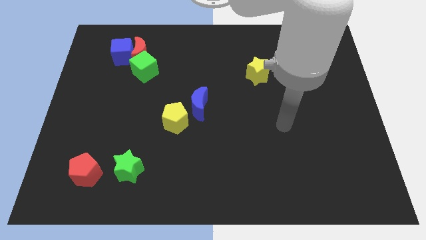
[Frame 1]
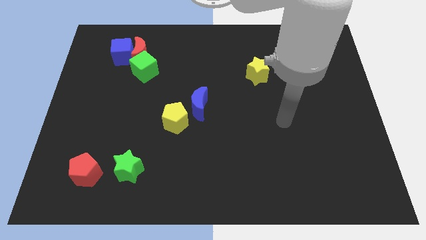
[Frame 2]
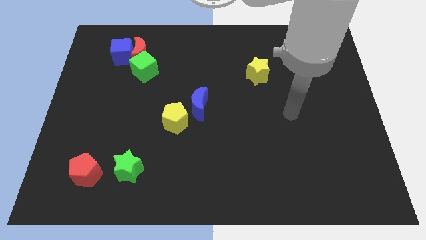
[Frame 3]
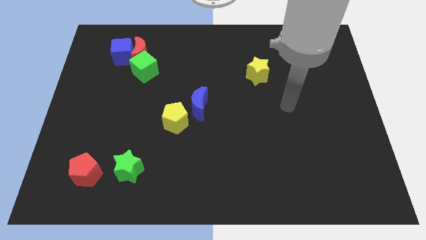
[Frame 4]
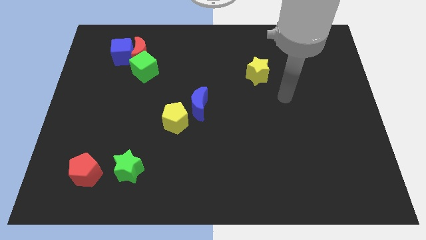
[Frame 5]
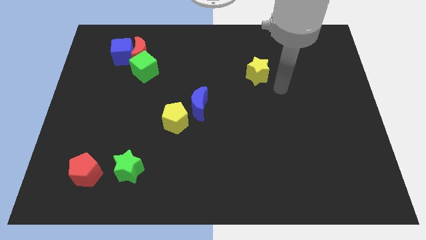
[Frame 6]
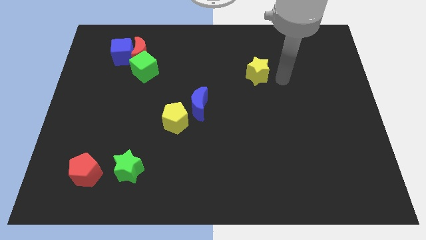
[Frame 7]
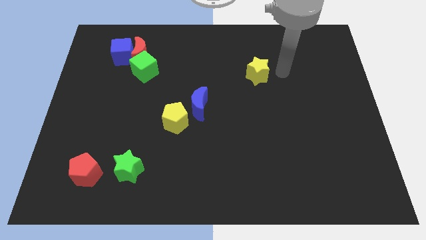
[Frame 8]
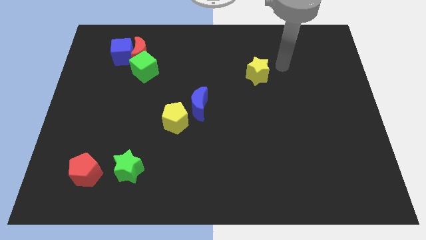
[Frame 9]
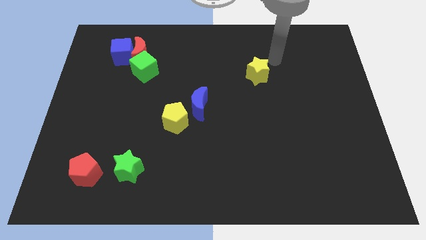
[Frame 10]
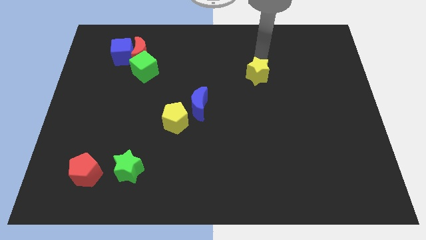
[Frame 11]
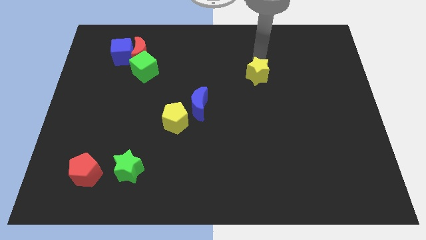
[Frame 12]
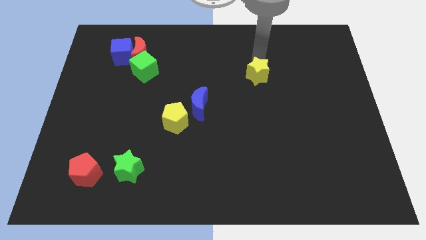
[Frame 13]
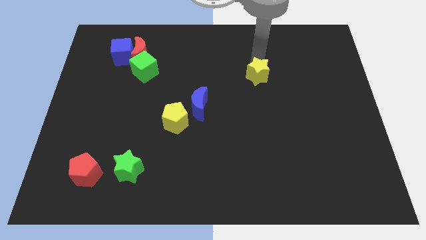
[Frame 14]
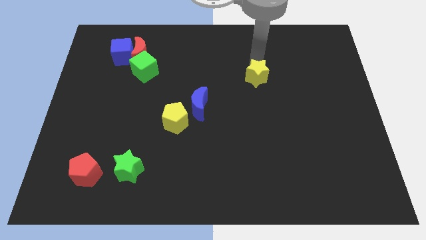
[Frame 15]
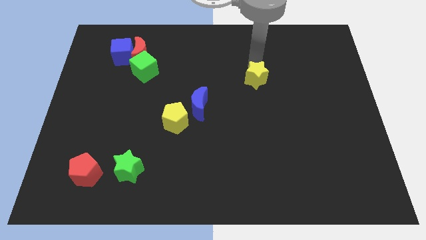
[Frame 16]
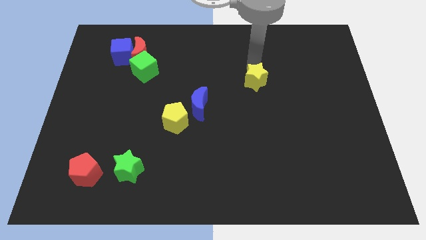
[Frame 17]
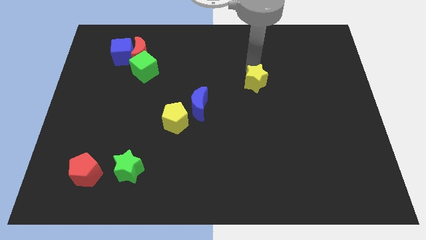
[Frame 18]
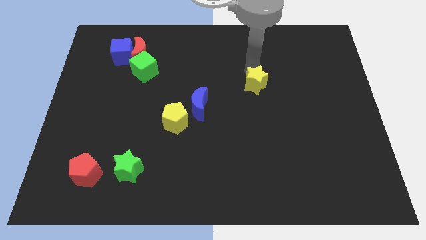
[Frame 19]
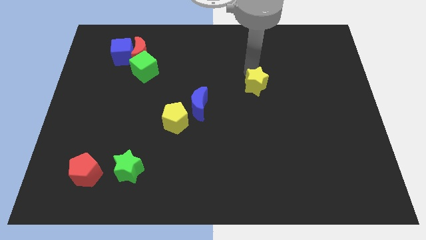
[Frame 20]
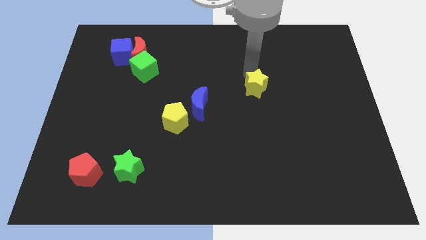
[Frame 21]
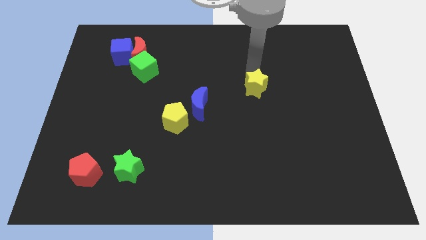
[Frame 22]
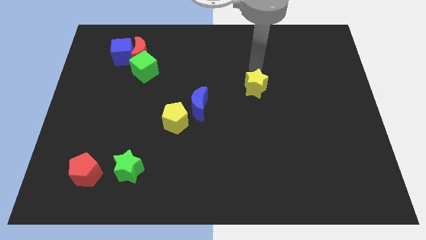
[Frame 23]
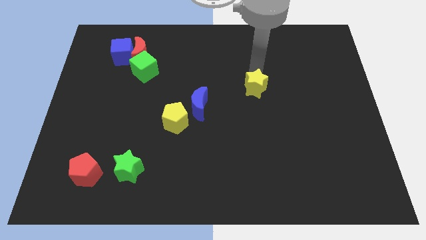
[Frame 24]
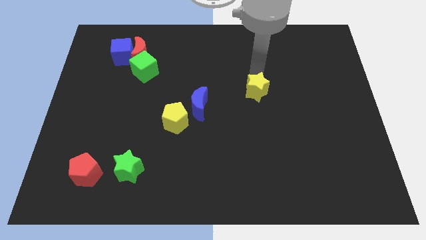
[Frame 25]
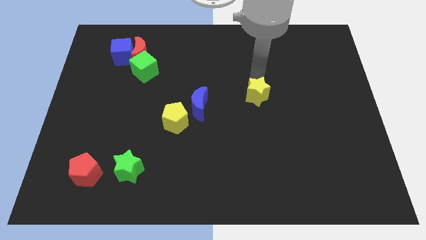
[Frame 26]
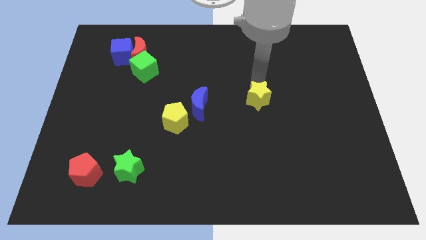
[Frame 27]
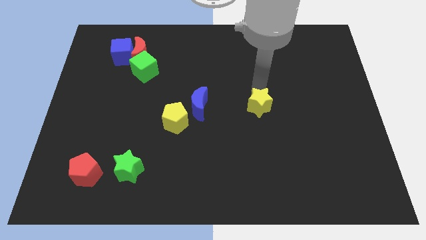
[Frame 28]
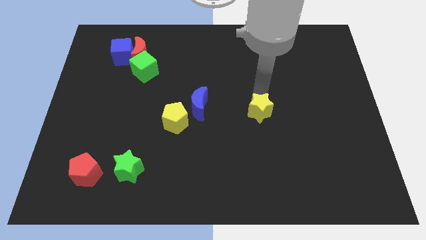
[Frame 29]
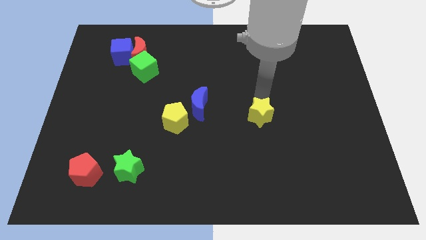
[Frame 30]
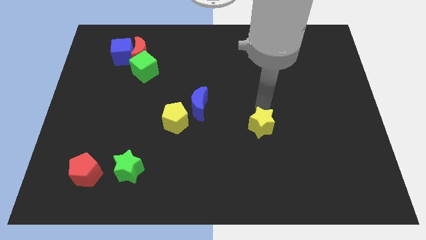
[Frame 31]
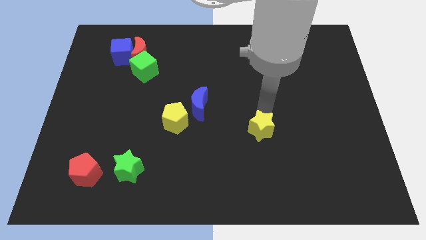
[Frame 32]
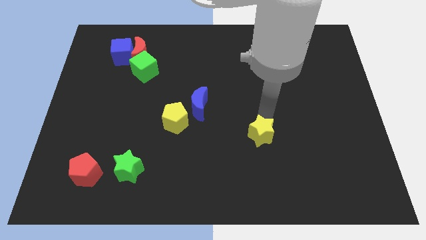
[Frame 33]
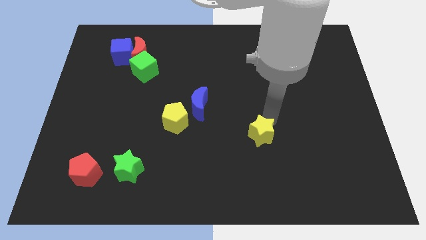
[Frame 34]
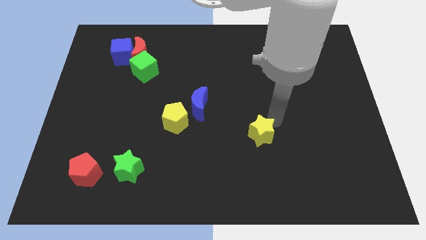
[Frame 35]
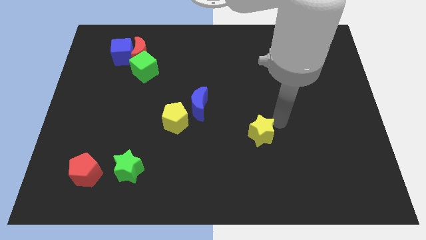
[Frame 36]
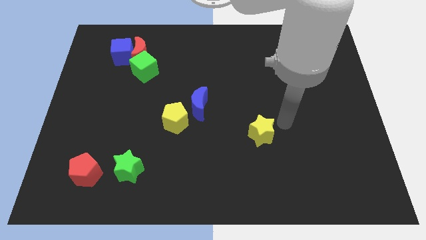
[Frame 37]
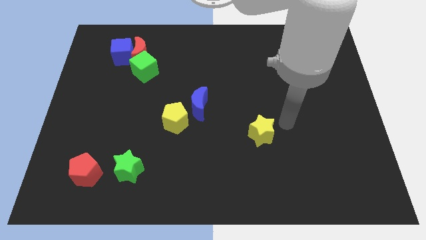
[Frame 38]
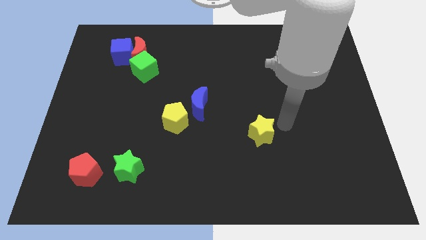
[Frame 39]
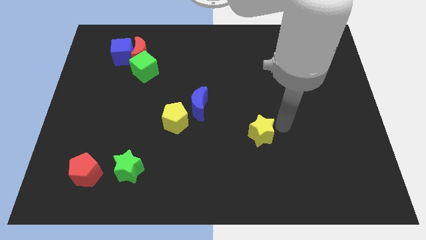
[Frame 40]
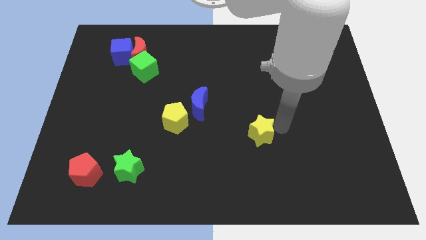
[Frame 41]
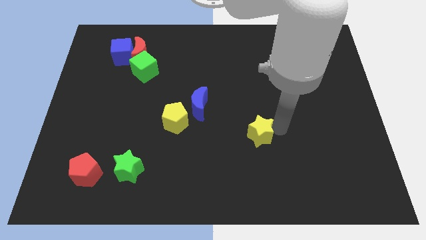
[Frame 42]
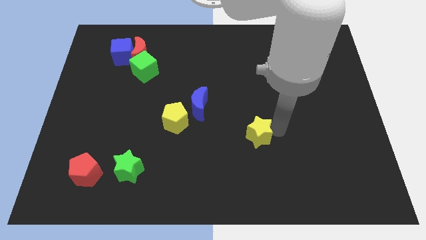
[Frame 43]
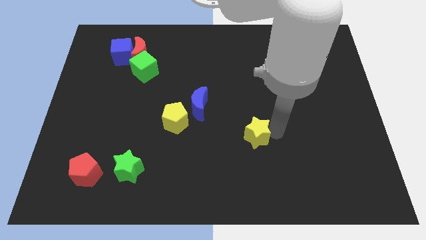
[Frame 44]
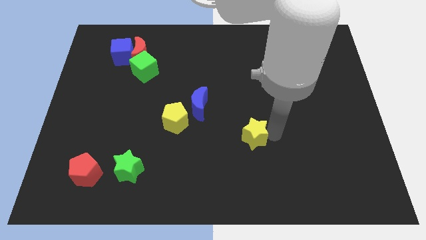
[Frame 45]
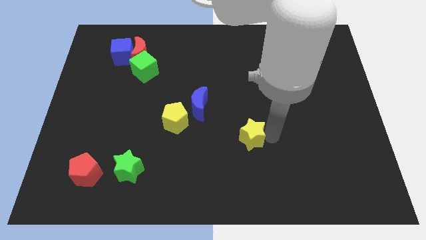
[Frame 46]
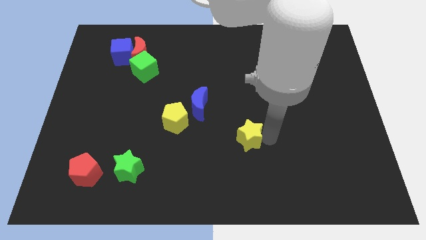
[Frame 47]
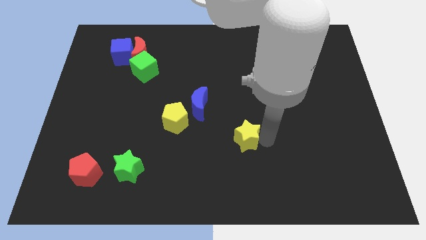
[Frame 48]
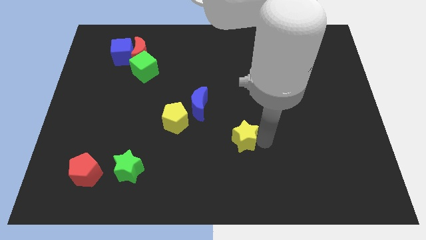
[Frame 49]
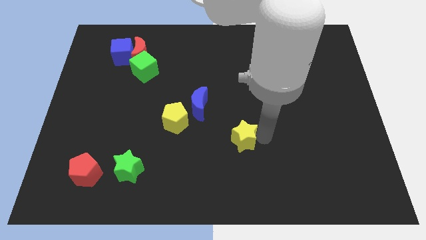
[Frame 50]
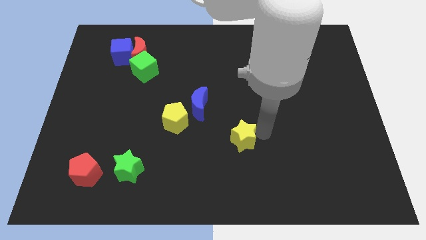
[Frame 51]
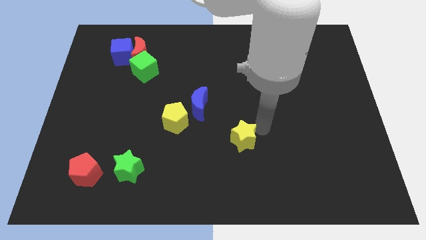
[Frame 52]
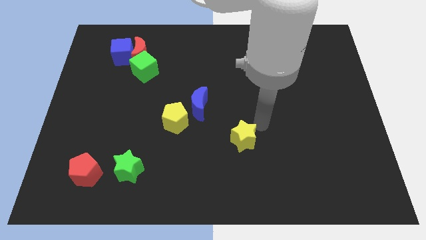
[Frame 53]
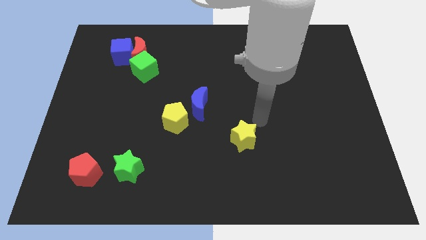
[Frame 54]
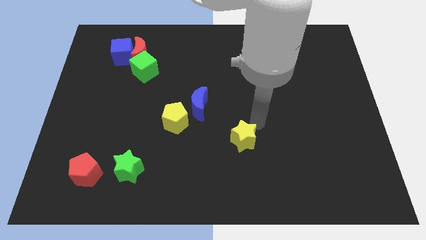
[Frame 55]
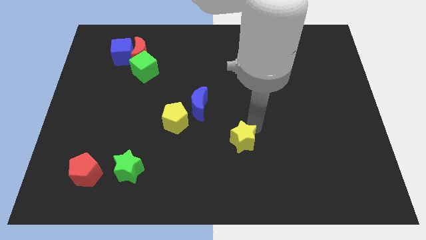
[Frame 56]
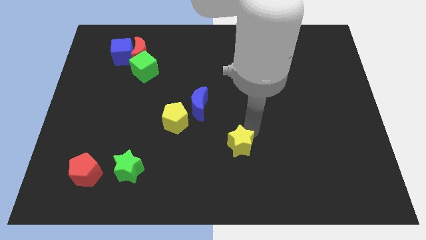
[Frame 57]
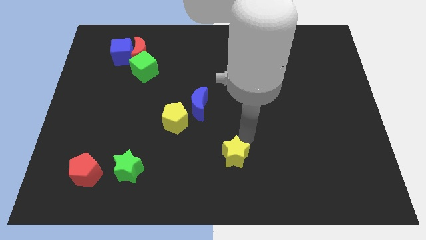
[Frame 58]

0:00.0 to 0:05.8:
put the yellow star to the bottom side
